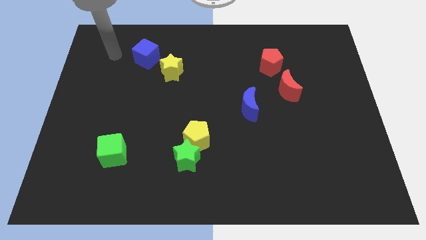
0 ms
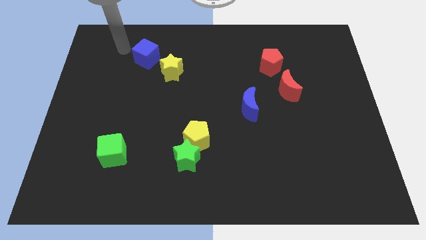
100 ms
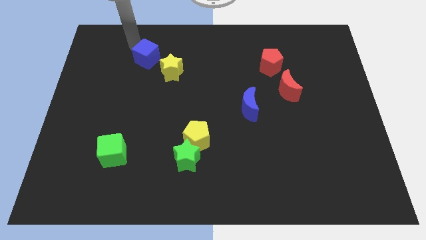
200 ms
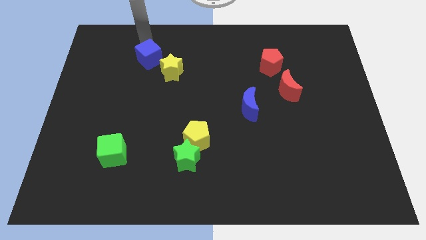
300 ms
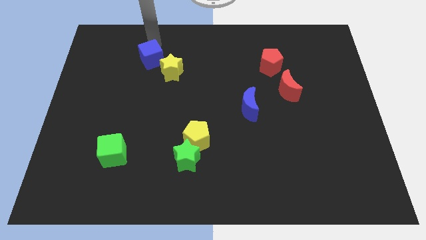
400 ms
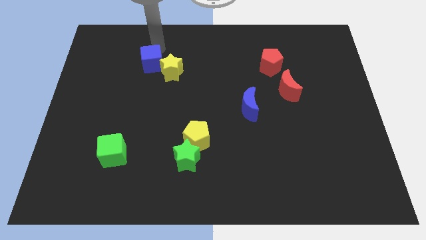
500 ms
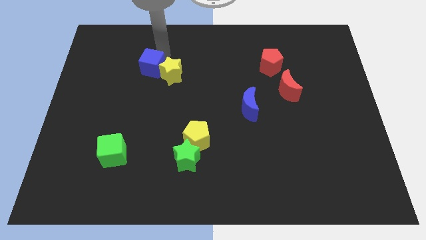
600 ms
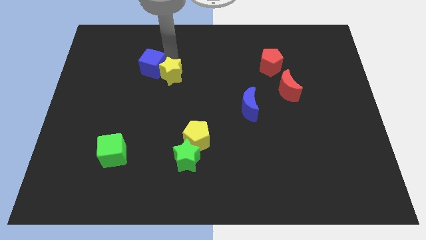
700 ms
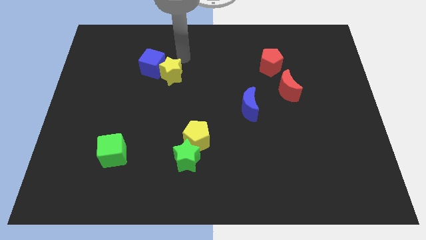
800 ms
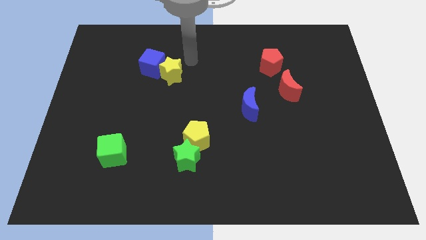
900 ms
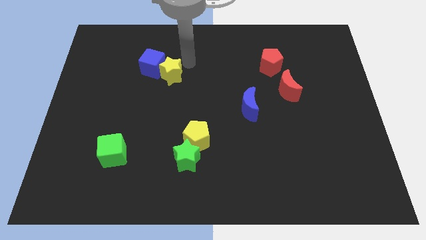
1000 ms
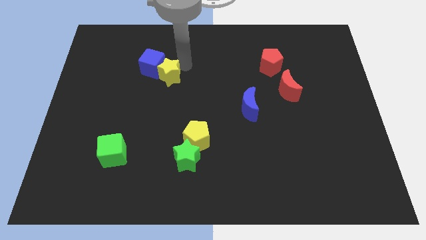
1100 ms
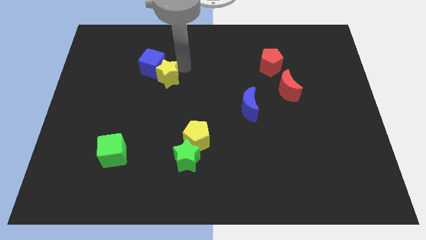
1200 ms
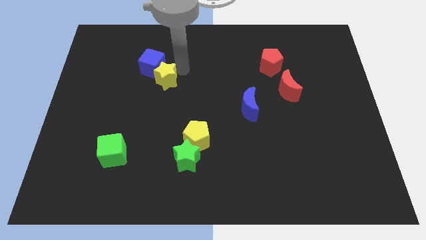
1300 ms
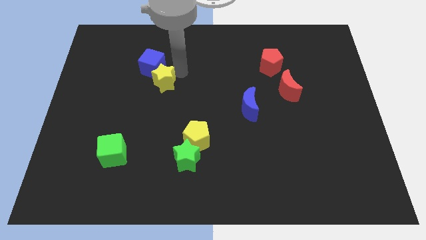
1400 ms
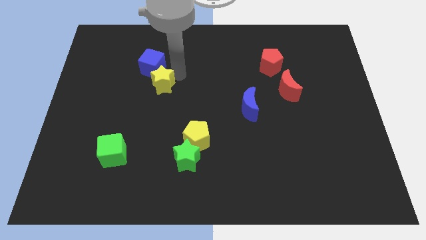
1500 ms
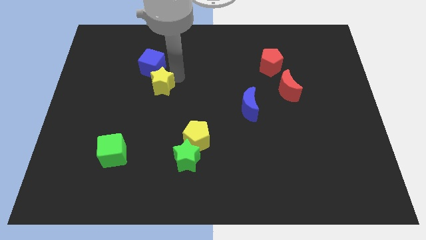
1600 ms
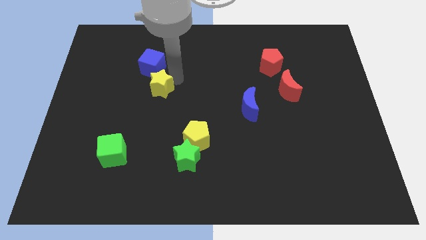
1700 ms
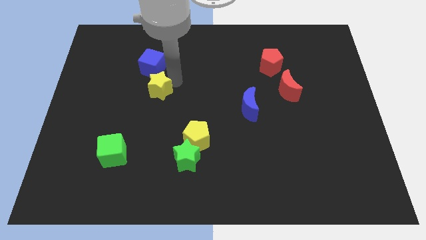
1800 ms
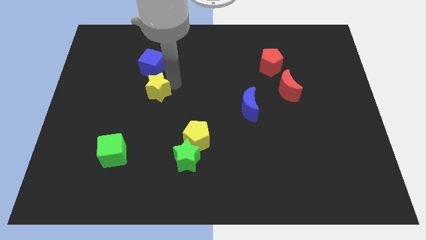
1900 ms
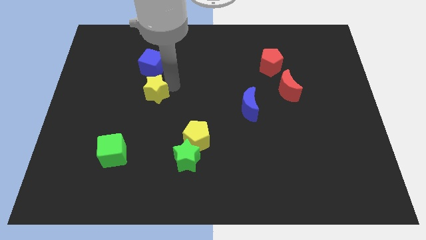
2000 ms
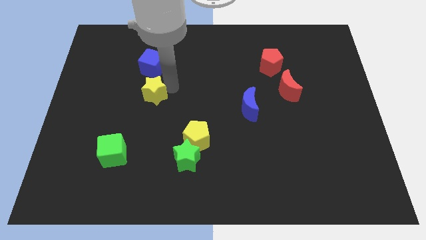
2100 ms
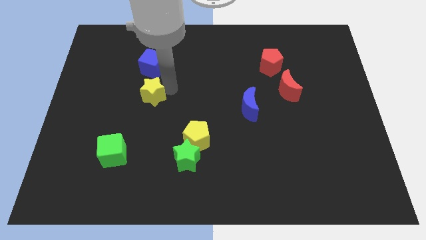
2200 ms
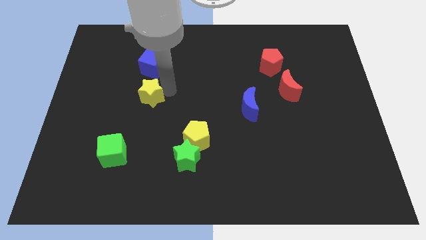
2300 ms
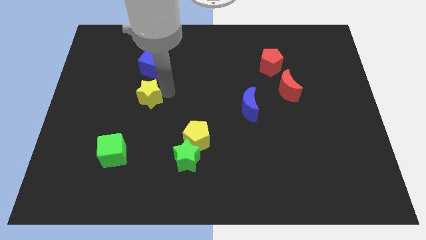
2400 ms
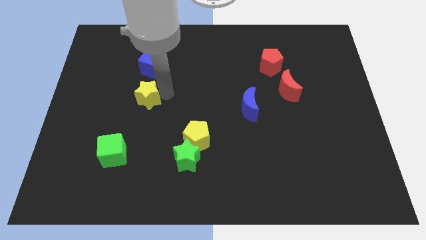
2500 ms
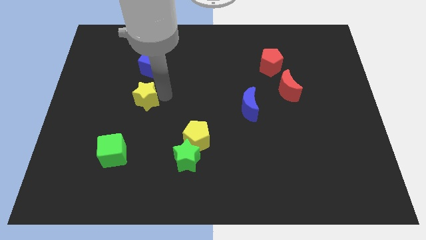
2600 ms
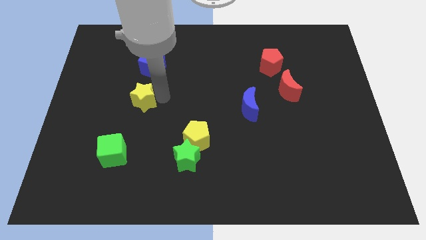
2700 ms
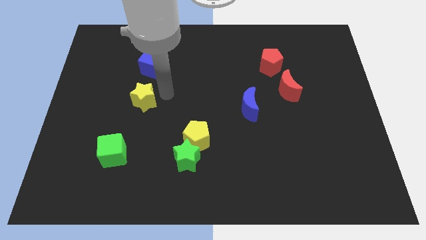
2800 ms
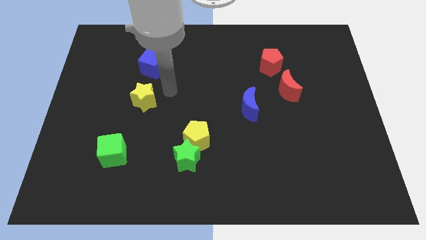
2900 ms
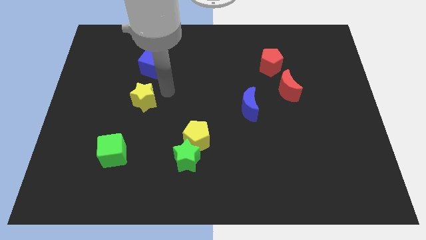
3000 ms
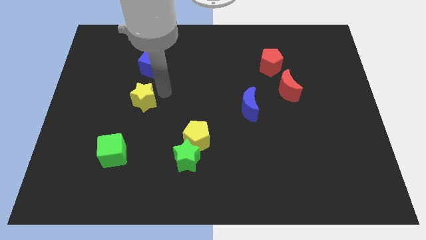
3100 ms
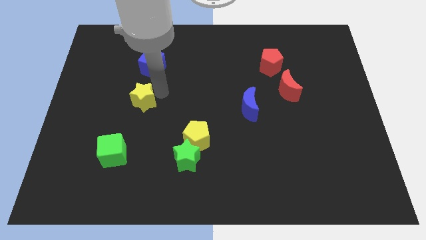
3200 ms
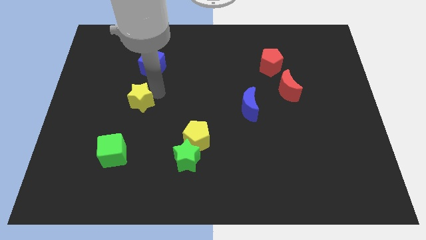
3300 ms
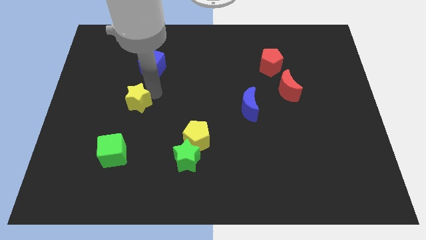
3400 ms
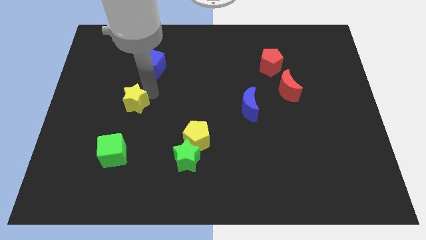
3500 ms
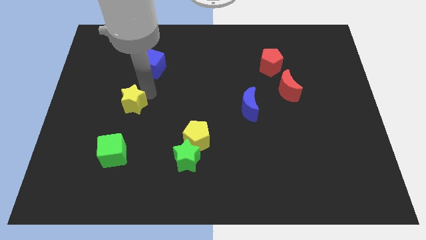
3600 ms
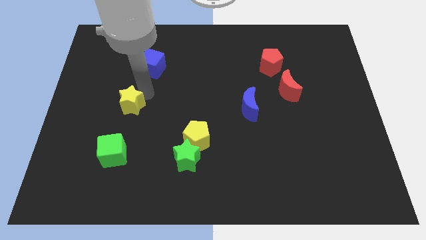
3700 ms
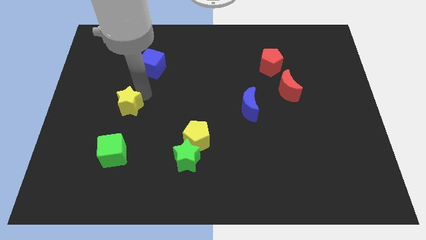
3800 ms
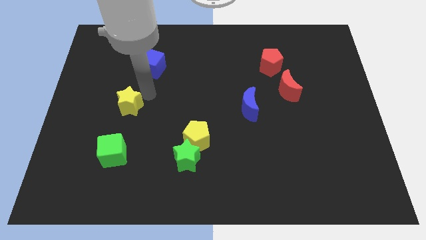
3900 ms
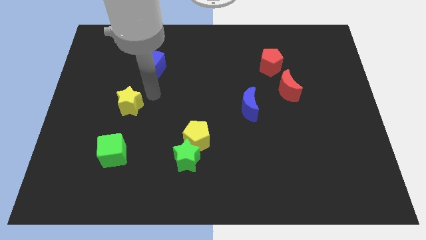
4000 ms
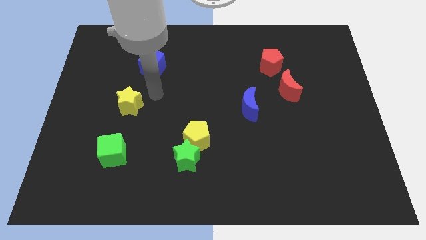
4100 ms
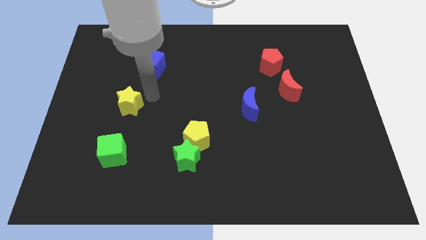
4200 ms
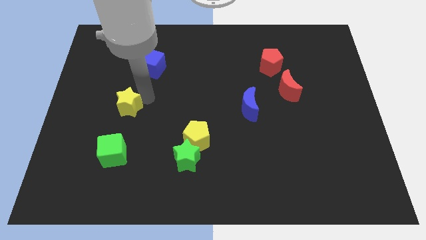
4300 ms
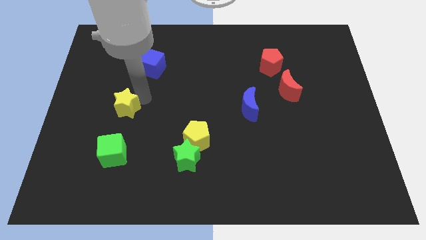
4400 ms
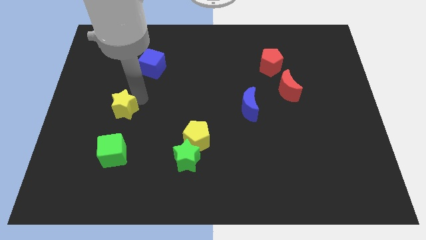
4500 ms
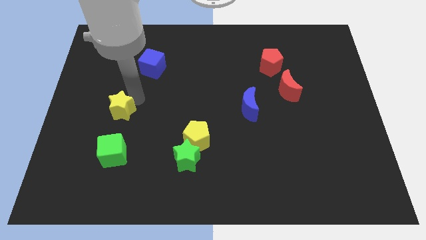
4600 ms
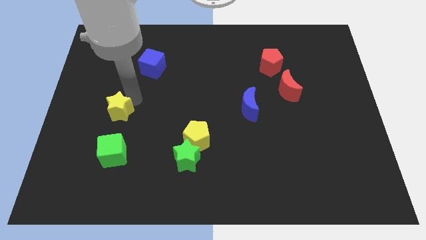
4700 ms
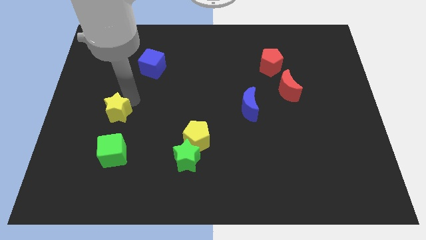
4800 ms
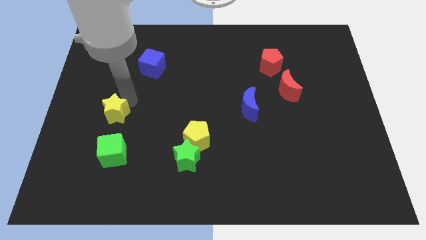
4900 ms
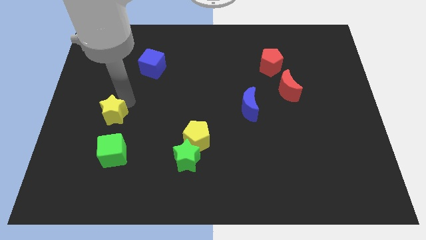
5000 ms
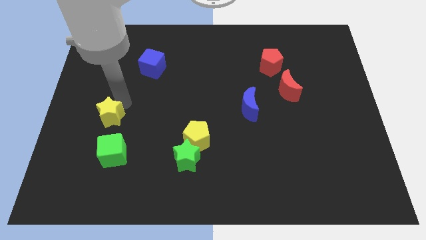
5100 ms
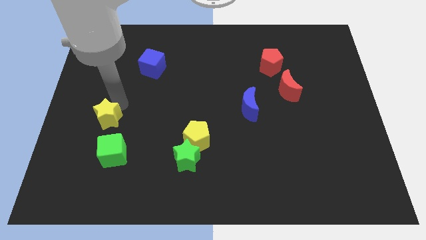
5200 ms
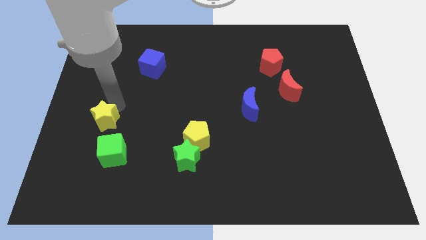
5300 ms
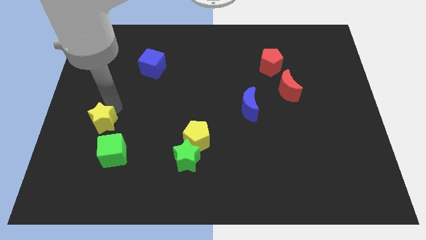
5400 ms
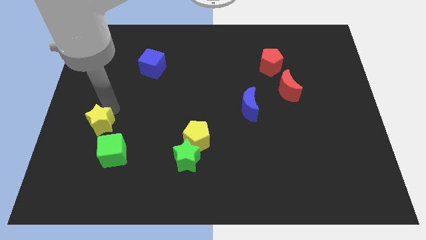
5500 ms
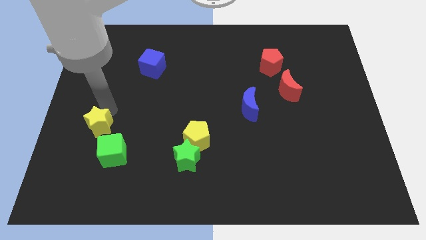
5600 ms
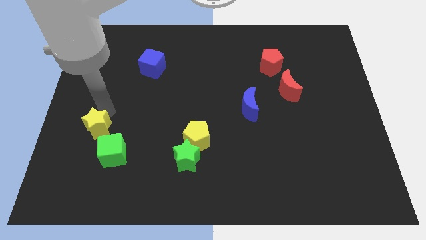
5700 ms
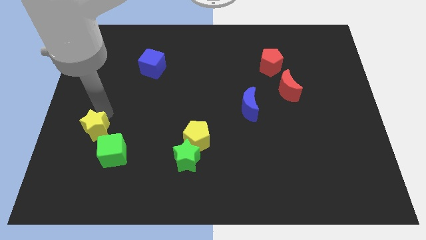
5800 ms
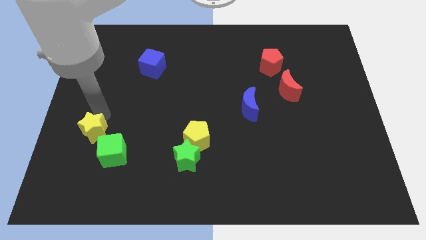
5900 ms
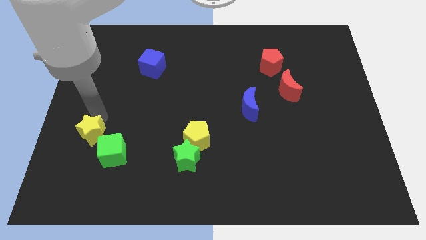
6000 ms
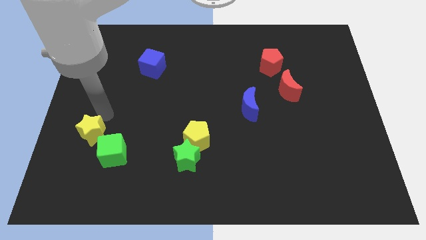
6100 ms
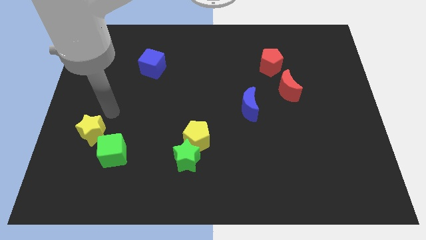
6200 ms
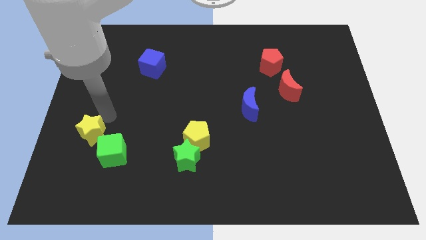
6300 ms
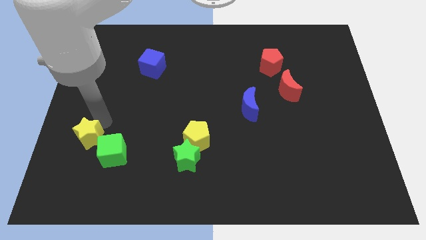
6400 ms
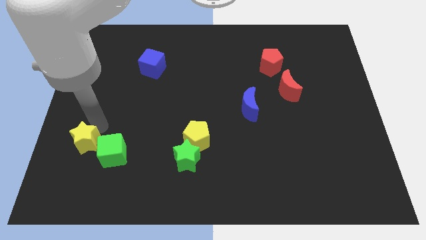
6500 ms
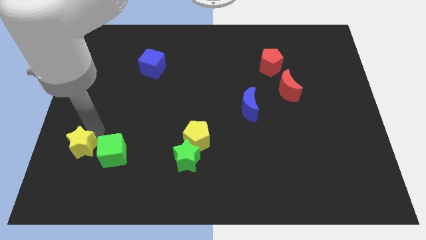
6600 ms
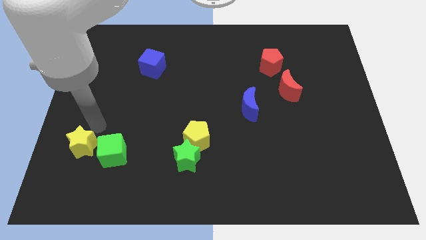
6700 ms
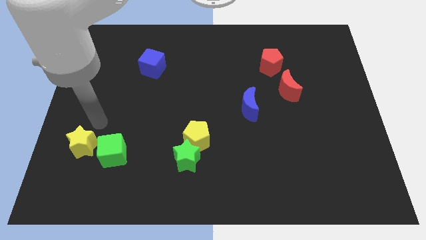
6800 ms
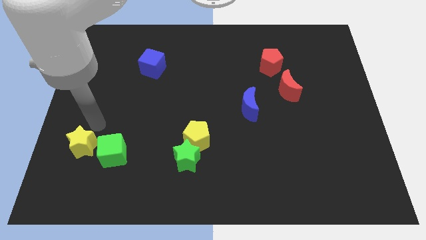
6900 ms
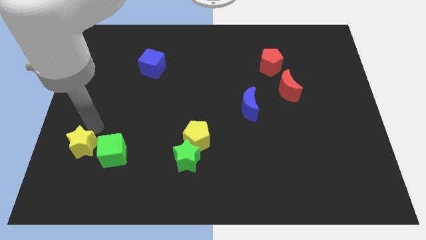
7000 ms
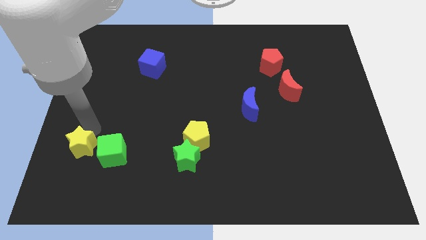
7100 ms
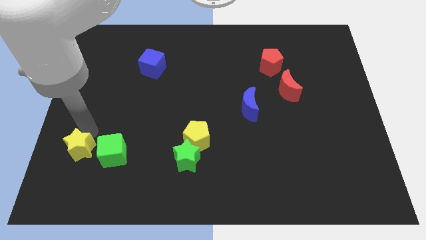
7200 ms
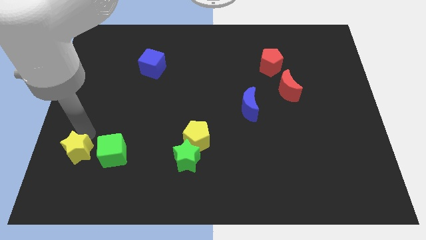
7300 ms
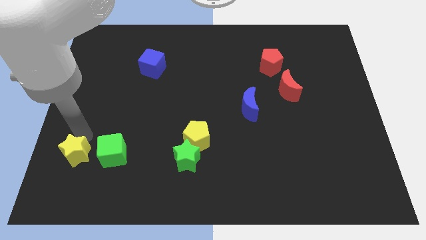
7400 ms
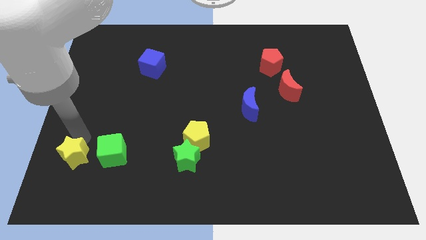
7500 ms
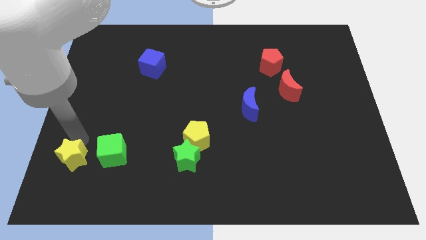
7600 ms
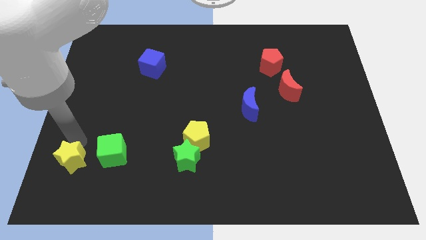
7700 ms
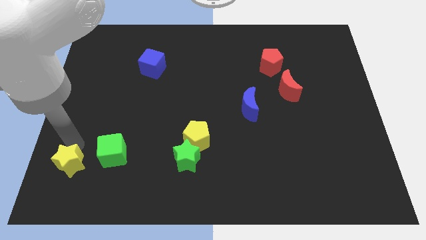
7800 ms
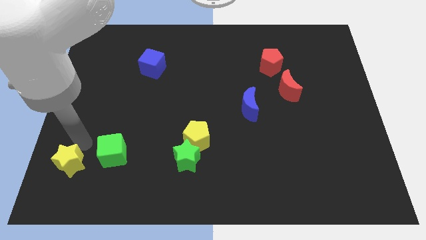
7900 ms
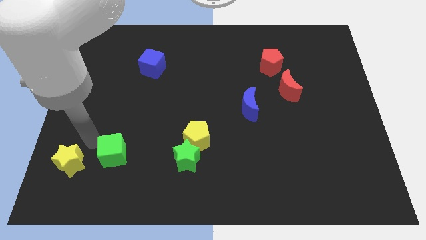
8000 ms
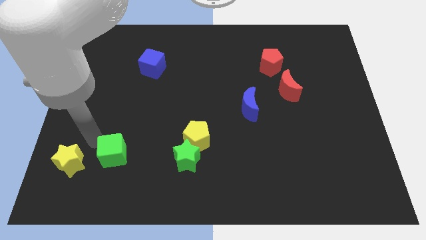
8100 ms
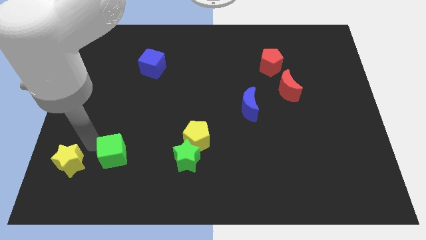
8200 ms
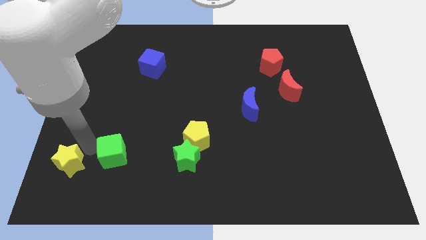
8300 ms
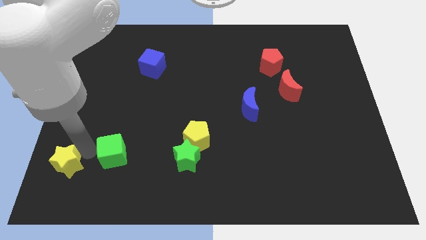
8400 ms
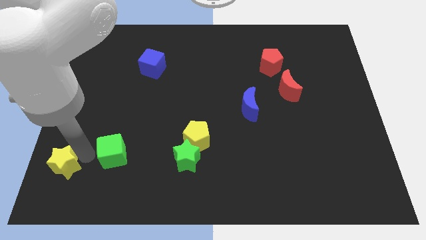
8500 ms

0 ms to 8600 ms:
push the yellow star to the bottom left
